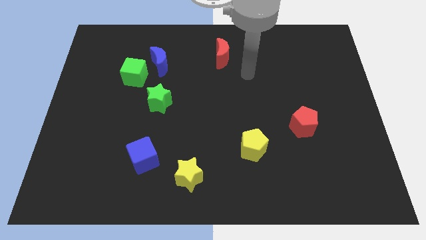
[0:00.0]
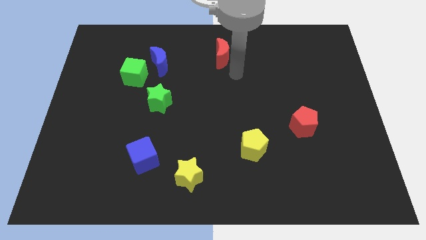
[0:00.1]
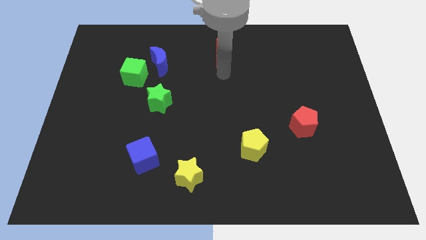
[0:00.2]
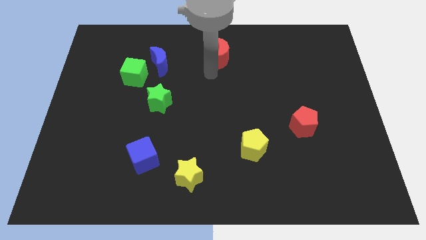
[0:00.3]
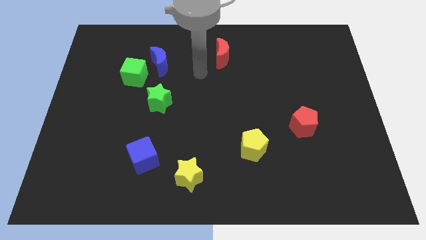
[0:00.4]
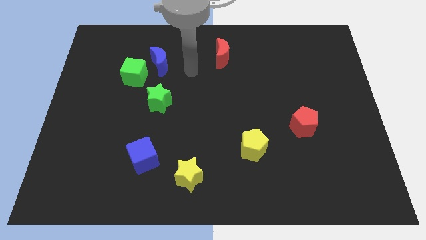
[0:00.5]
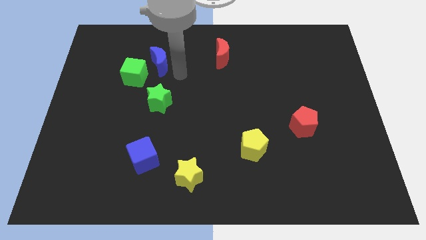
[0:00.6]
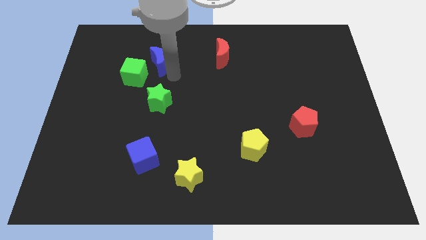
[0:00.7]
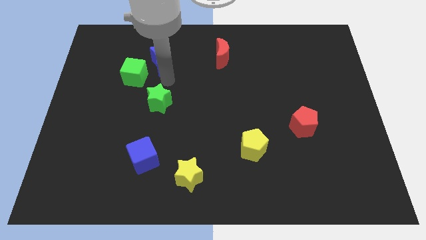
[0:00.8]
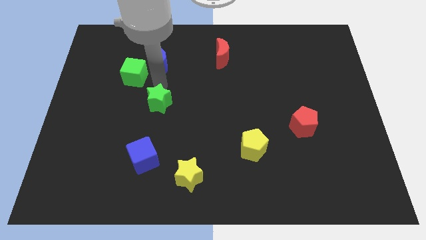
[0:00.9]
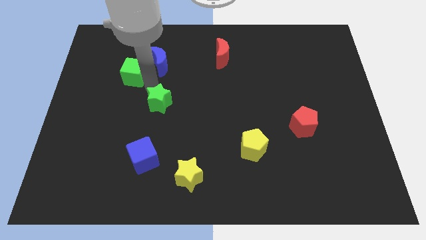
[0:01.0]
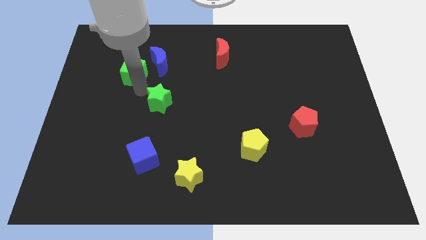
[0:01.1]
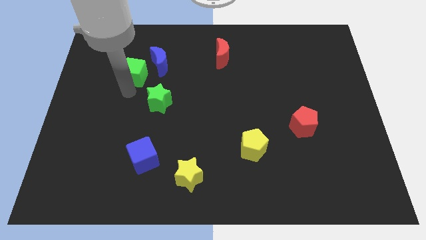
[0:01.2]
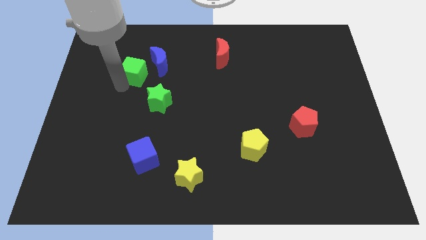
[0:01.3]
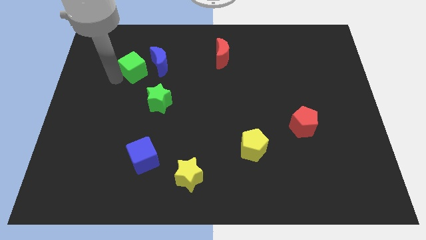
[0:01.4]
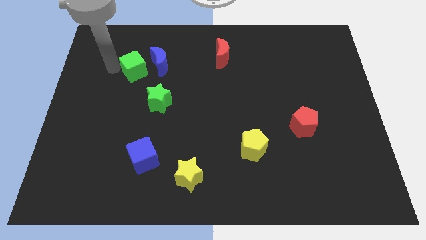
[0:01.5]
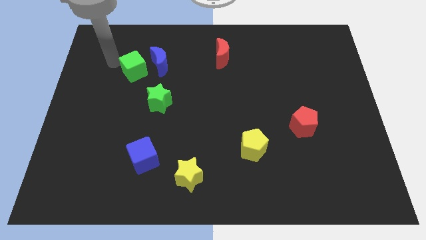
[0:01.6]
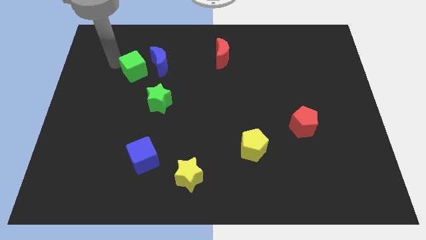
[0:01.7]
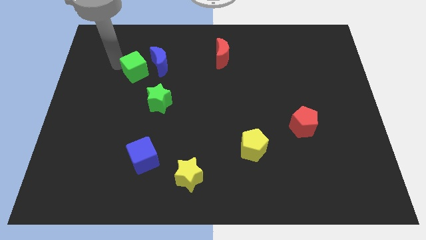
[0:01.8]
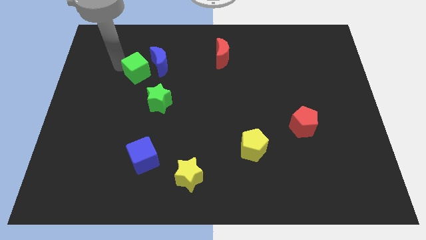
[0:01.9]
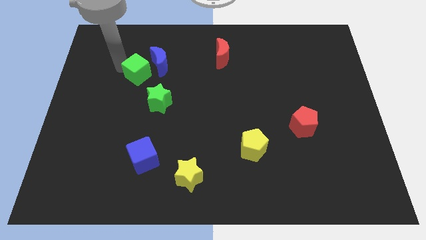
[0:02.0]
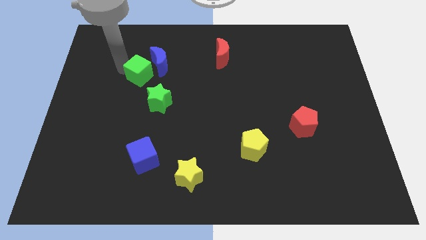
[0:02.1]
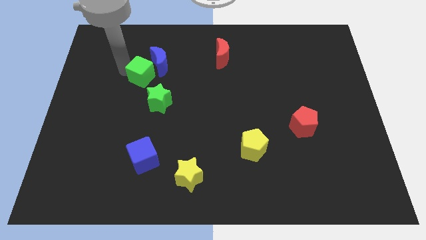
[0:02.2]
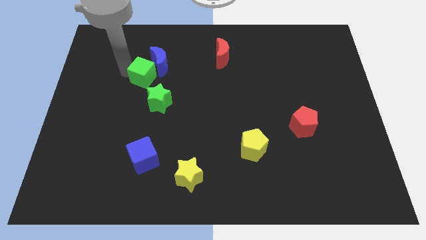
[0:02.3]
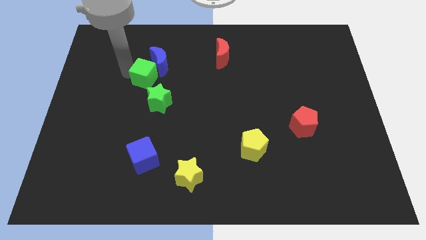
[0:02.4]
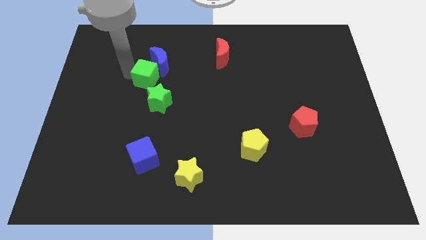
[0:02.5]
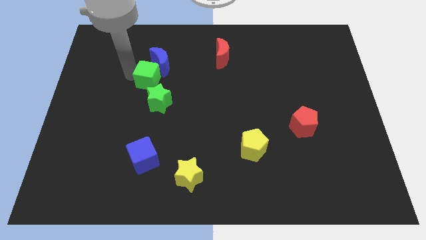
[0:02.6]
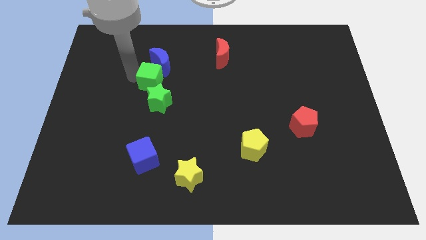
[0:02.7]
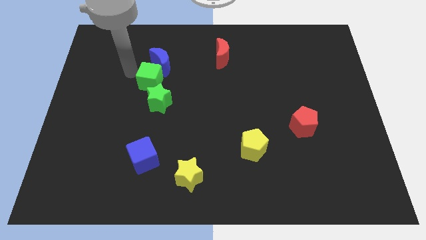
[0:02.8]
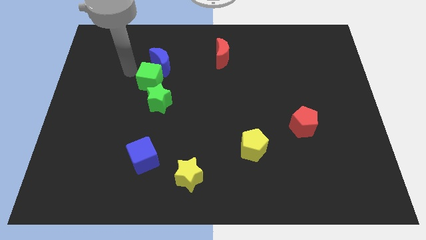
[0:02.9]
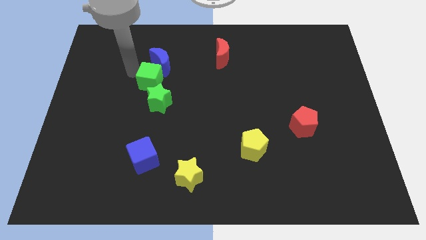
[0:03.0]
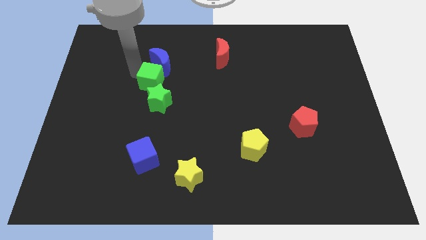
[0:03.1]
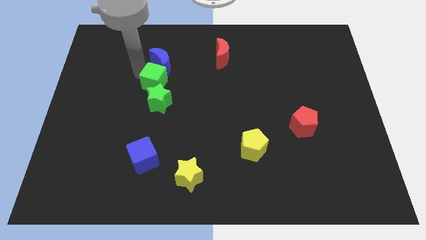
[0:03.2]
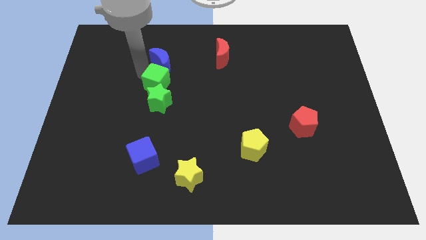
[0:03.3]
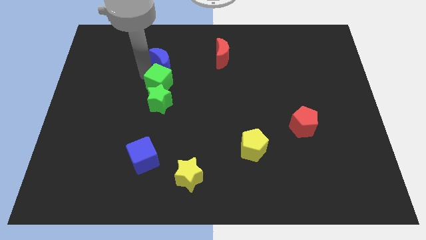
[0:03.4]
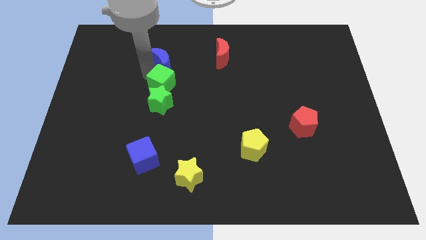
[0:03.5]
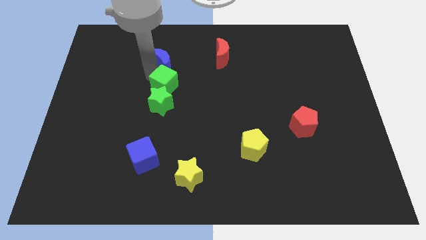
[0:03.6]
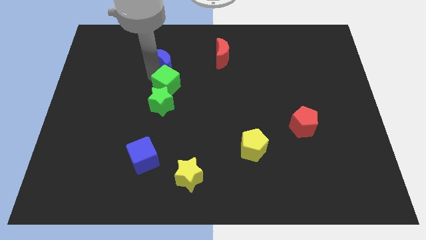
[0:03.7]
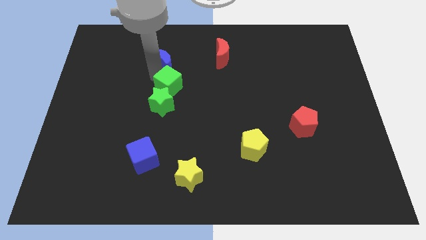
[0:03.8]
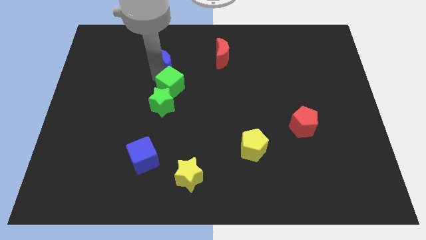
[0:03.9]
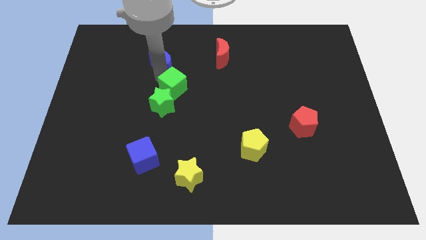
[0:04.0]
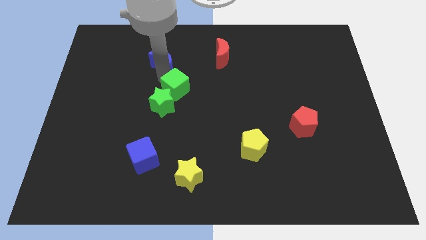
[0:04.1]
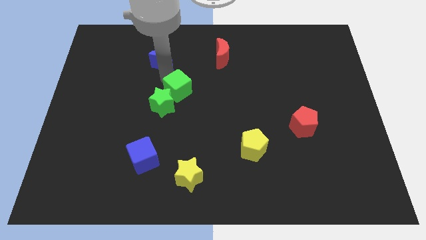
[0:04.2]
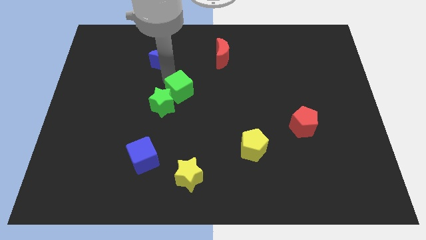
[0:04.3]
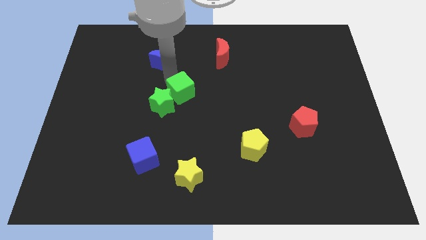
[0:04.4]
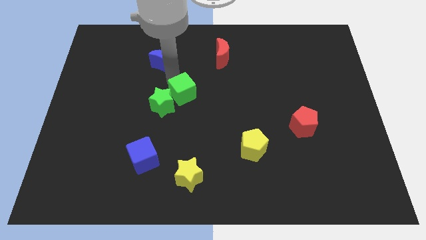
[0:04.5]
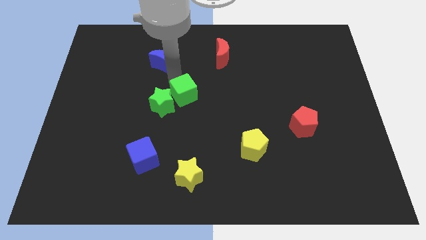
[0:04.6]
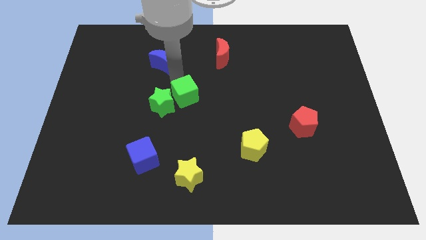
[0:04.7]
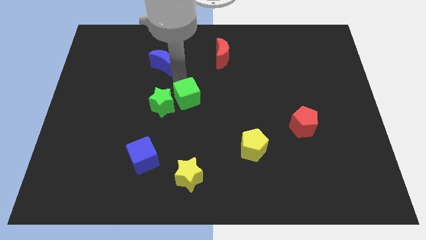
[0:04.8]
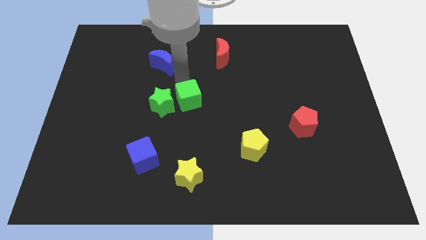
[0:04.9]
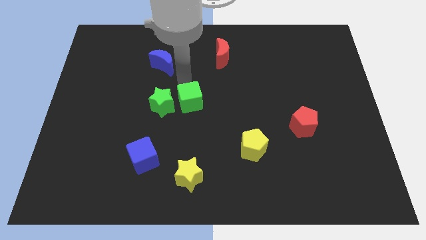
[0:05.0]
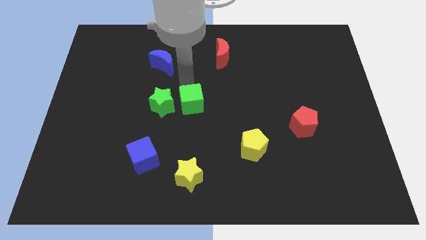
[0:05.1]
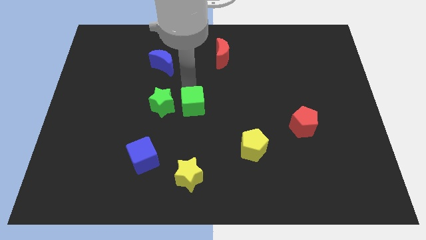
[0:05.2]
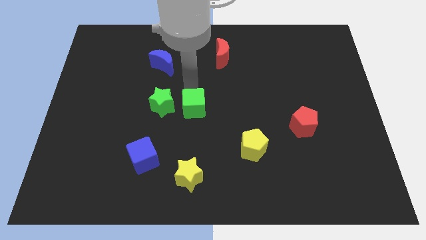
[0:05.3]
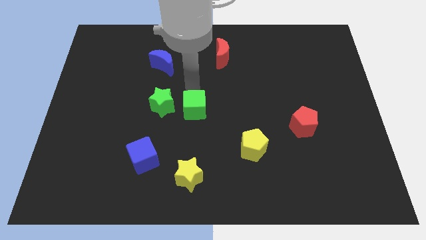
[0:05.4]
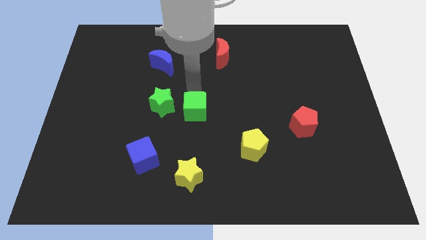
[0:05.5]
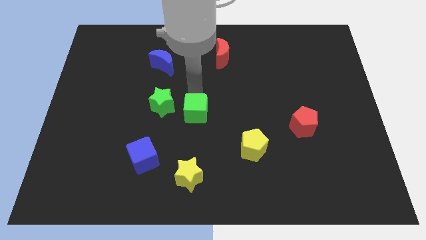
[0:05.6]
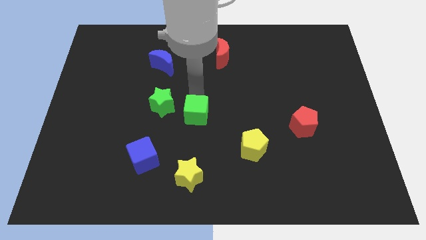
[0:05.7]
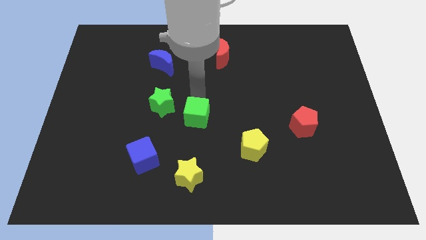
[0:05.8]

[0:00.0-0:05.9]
move the green cube diagonally downwards and to the right

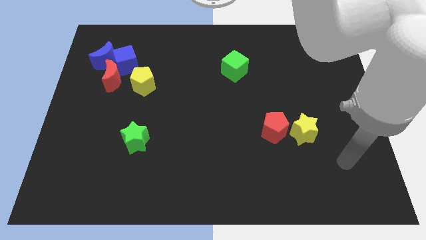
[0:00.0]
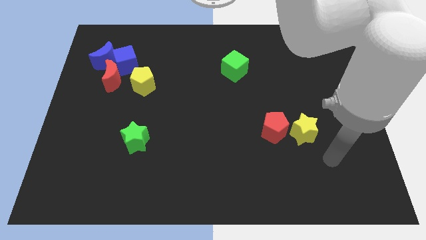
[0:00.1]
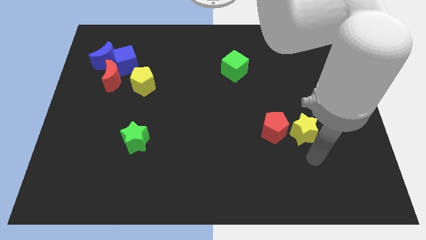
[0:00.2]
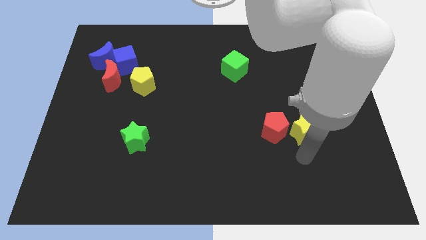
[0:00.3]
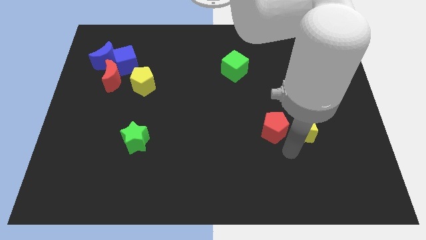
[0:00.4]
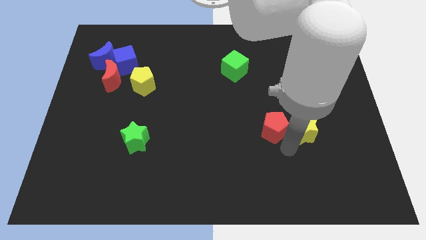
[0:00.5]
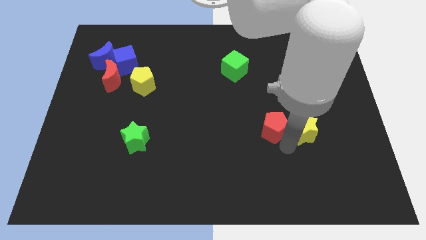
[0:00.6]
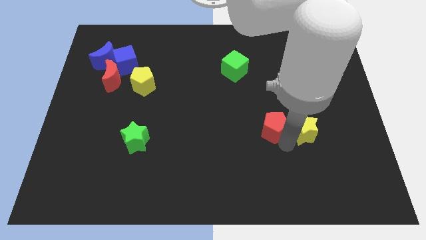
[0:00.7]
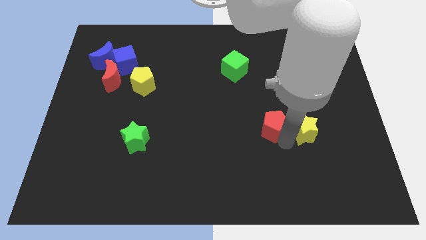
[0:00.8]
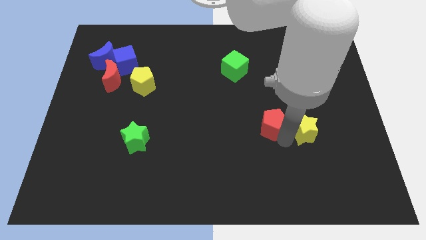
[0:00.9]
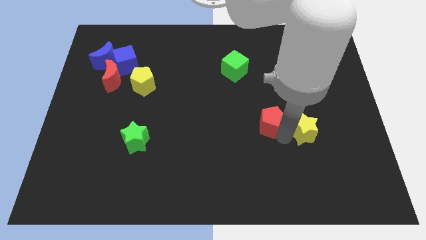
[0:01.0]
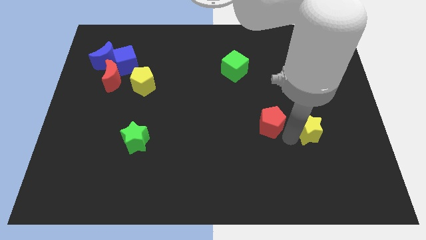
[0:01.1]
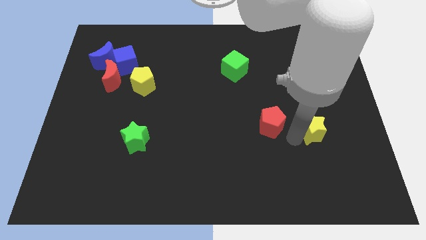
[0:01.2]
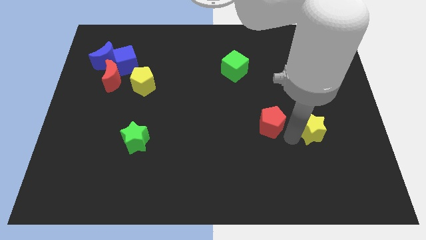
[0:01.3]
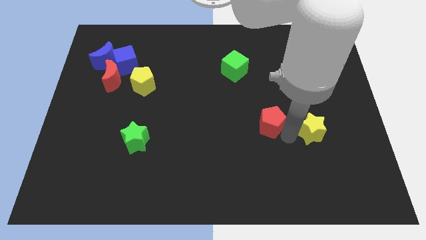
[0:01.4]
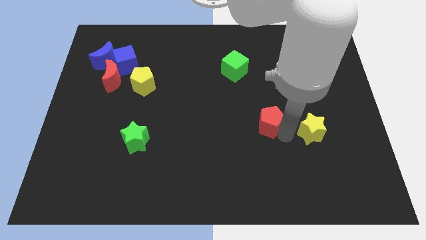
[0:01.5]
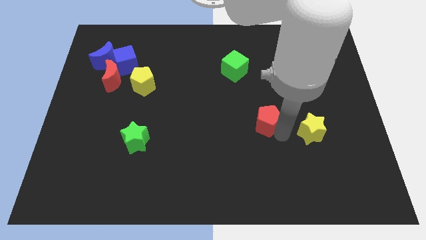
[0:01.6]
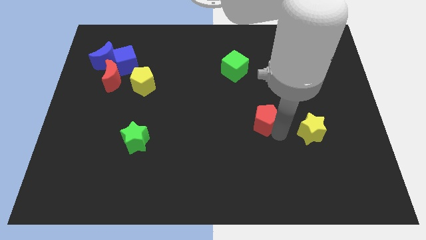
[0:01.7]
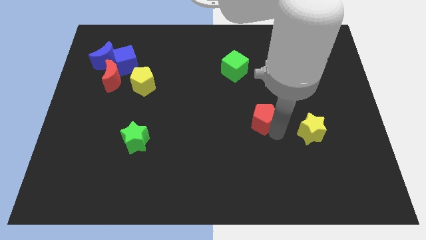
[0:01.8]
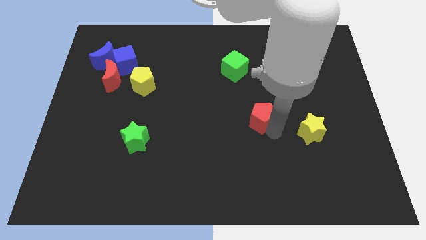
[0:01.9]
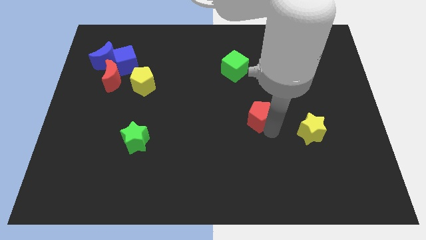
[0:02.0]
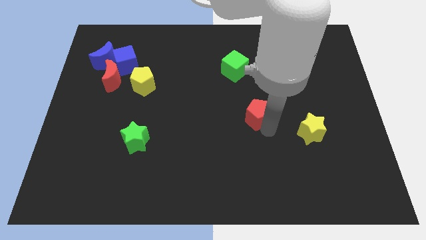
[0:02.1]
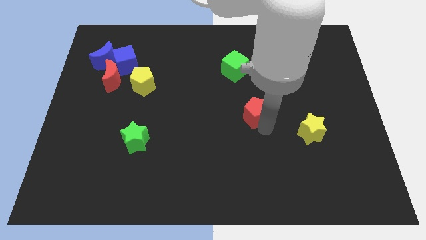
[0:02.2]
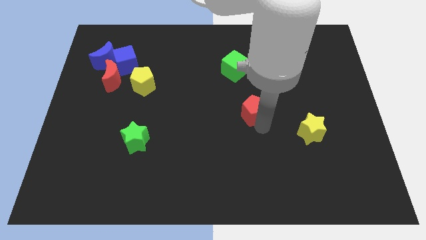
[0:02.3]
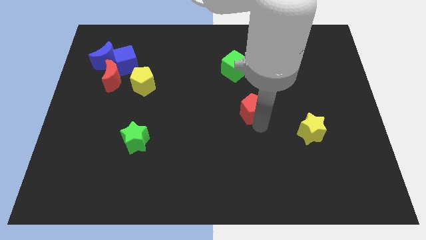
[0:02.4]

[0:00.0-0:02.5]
push the red pentagon a little bit up and then left
